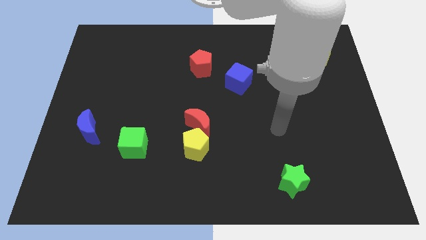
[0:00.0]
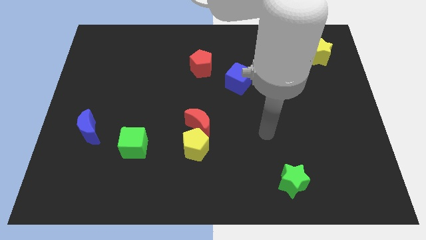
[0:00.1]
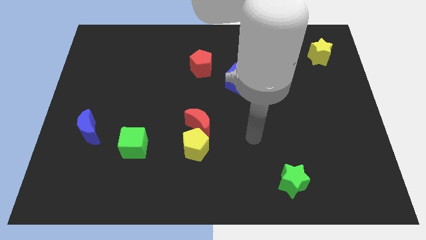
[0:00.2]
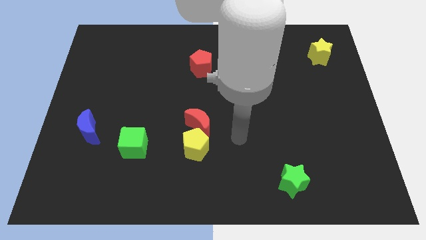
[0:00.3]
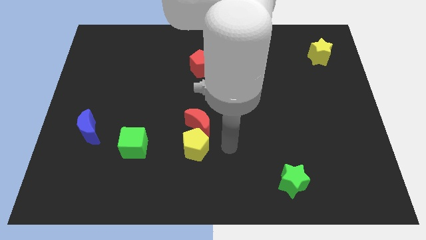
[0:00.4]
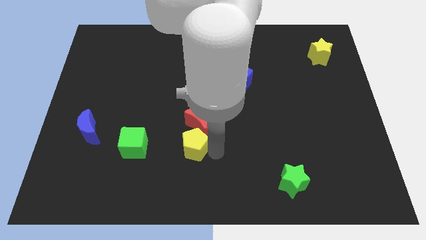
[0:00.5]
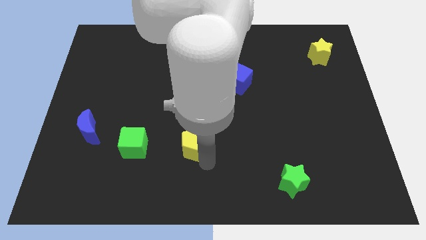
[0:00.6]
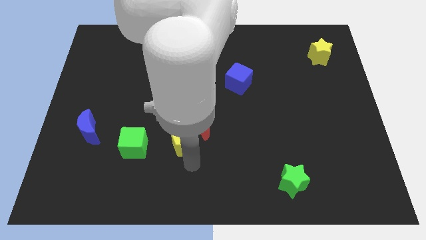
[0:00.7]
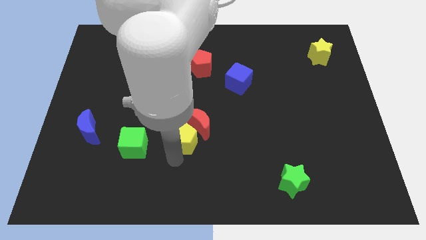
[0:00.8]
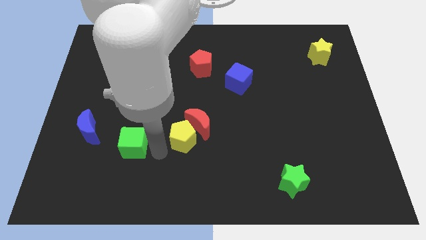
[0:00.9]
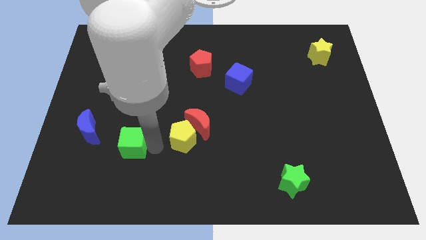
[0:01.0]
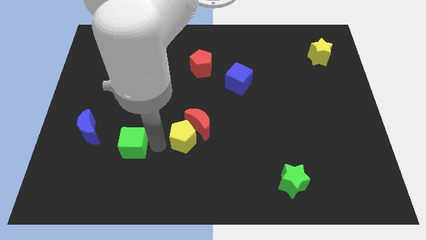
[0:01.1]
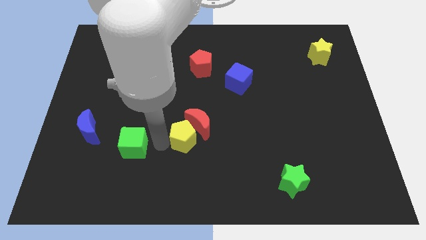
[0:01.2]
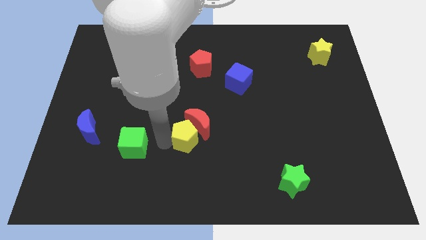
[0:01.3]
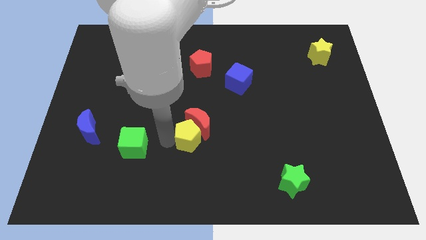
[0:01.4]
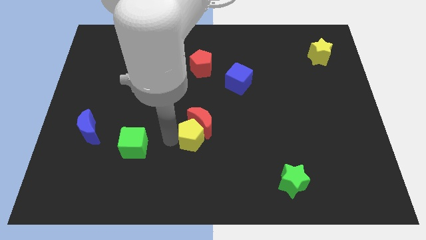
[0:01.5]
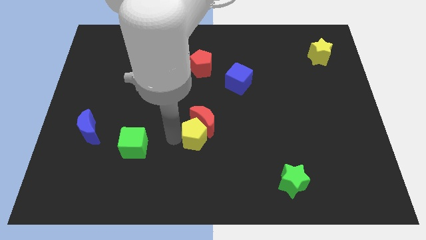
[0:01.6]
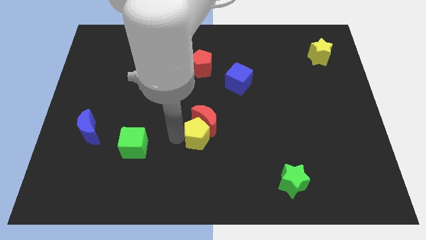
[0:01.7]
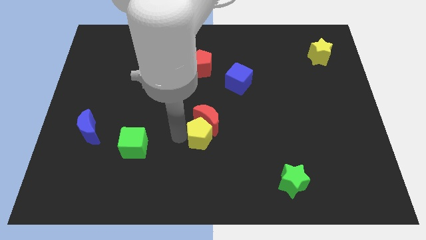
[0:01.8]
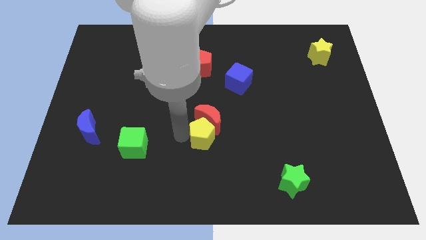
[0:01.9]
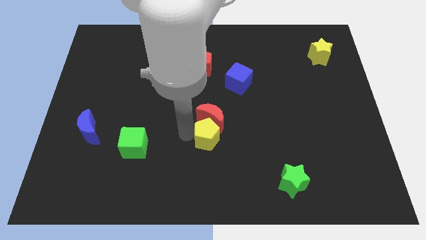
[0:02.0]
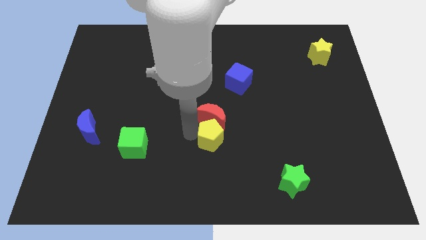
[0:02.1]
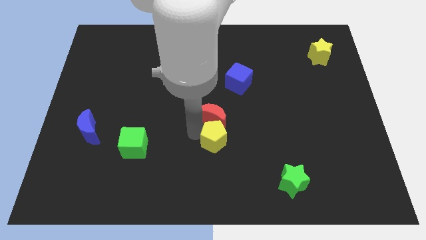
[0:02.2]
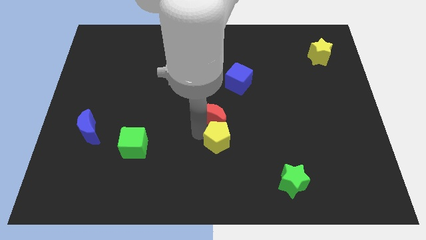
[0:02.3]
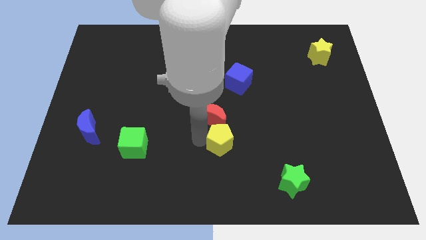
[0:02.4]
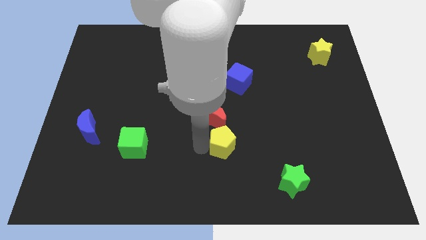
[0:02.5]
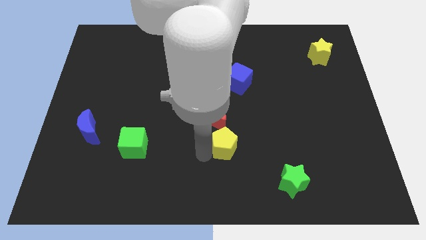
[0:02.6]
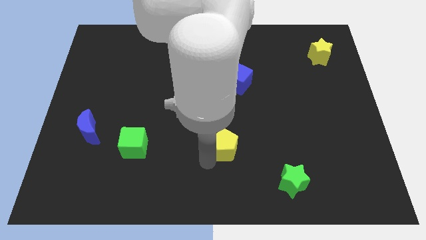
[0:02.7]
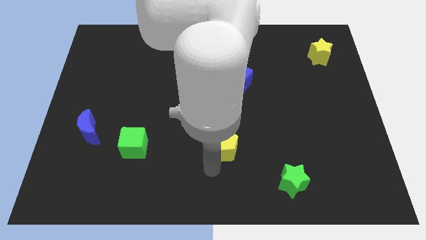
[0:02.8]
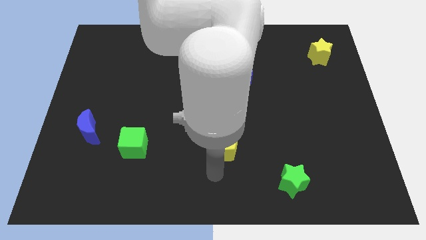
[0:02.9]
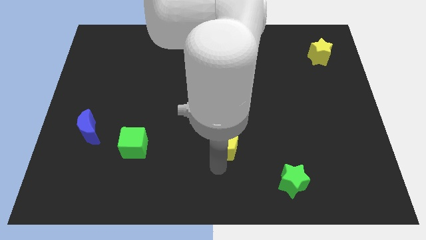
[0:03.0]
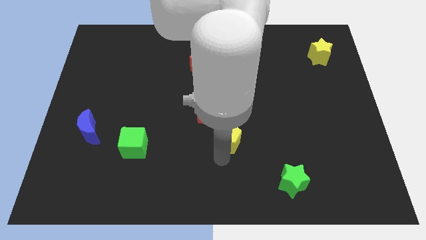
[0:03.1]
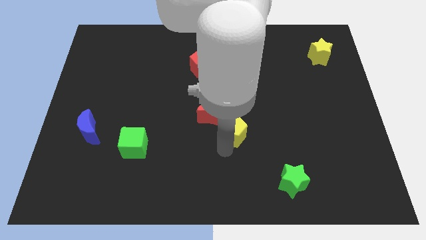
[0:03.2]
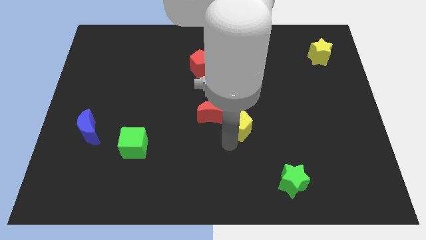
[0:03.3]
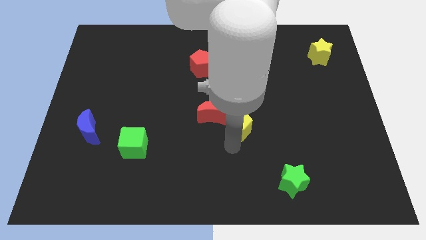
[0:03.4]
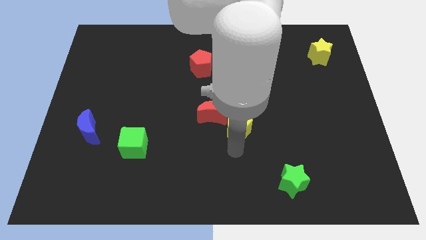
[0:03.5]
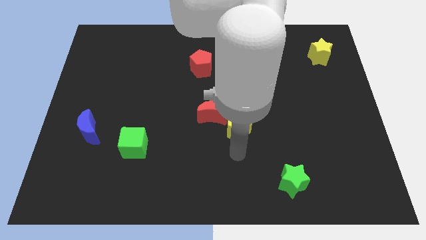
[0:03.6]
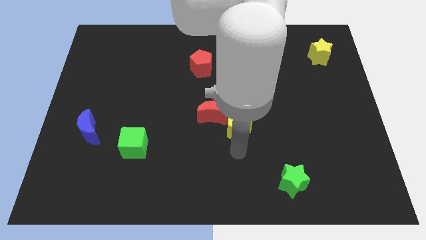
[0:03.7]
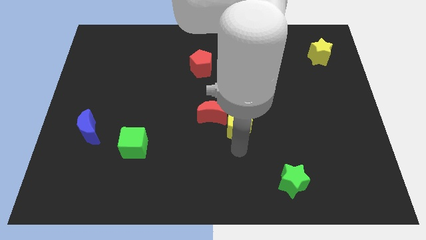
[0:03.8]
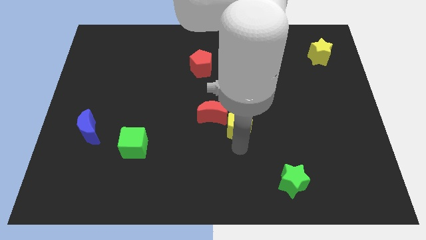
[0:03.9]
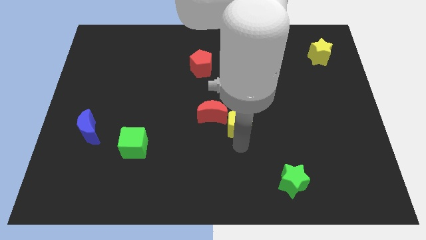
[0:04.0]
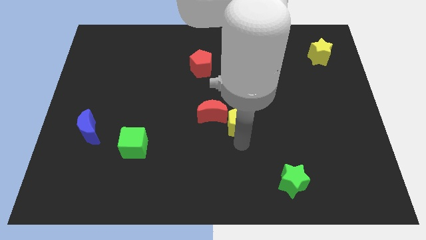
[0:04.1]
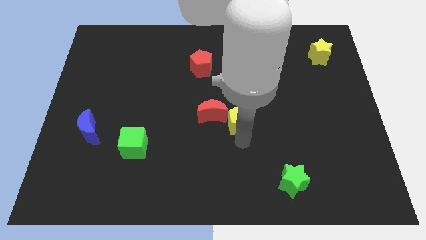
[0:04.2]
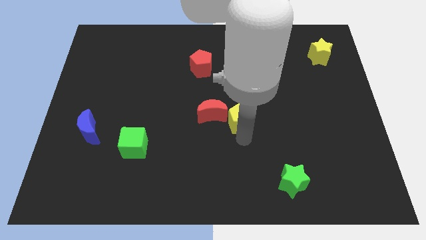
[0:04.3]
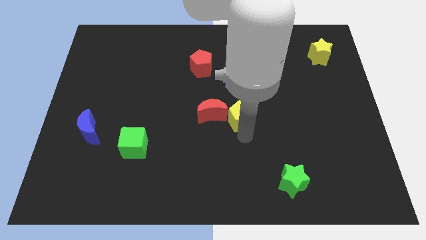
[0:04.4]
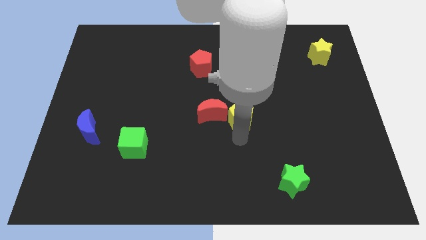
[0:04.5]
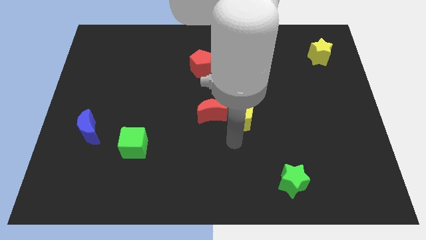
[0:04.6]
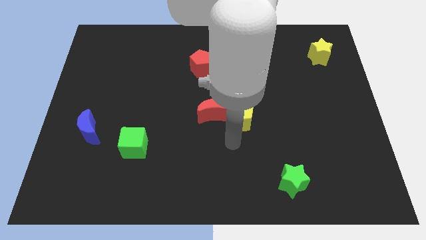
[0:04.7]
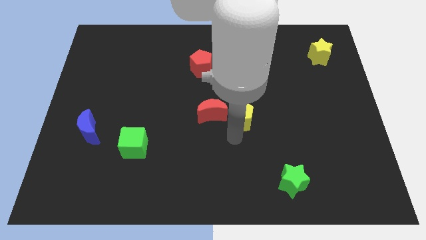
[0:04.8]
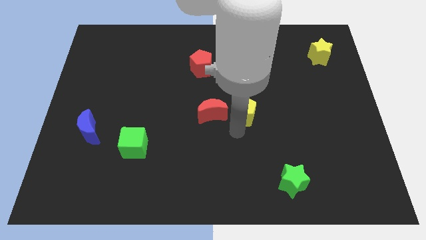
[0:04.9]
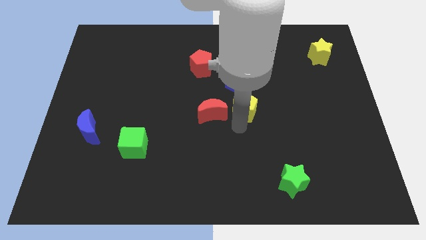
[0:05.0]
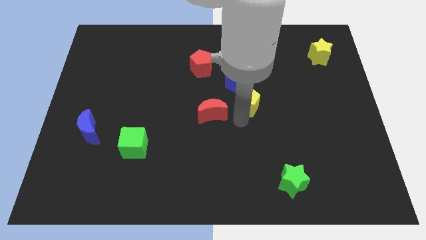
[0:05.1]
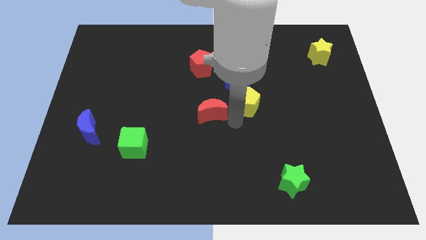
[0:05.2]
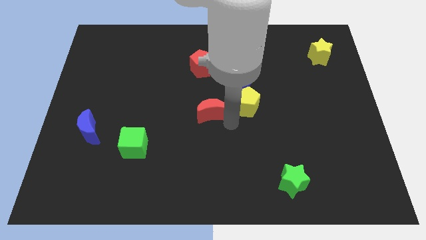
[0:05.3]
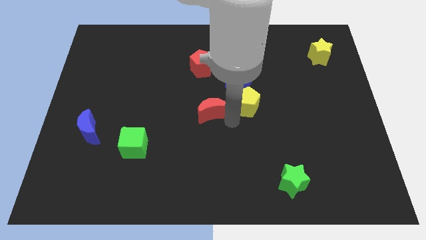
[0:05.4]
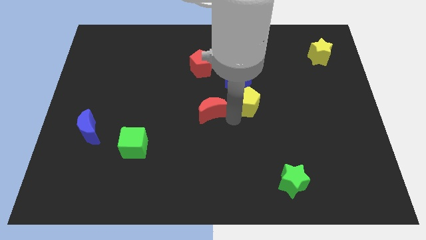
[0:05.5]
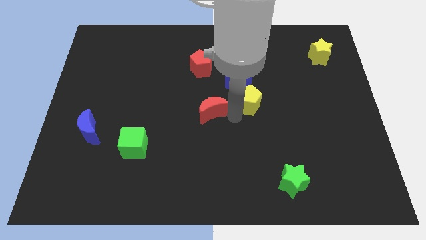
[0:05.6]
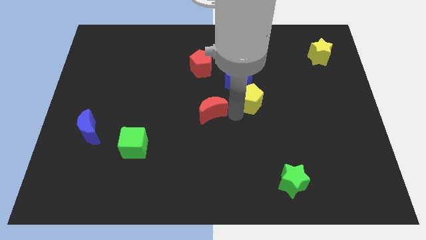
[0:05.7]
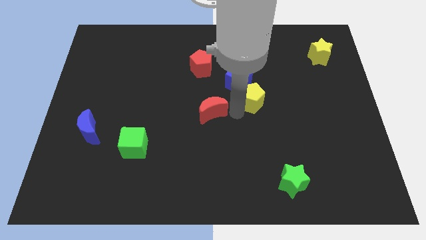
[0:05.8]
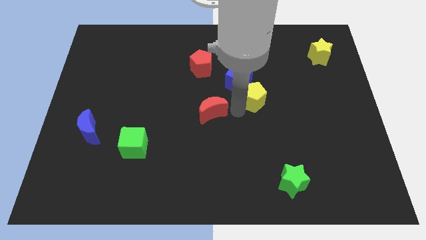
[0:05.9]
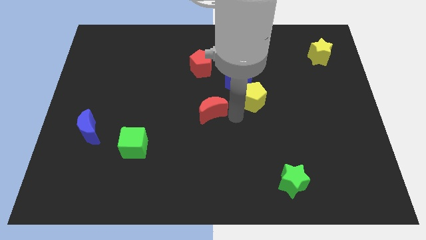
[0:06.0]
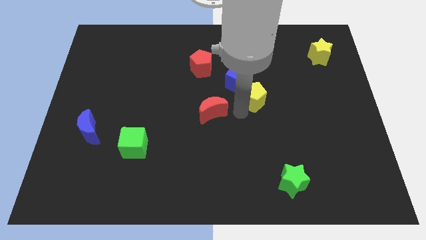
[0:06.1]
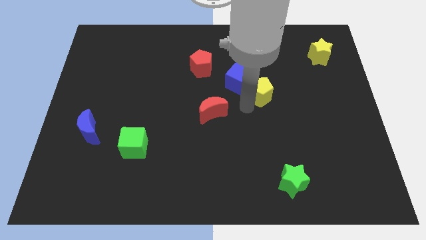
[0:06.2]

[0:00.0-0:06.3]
move the yellow pentagon up and then right

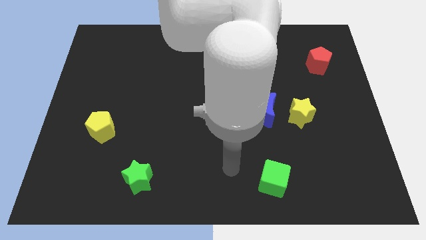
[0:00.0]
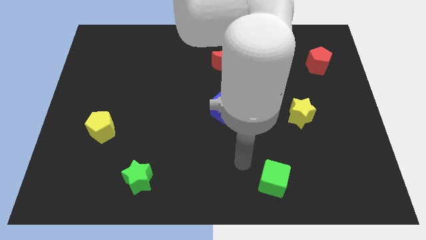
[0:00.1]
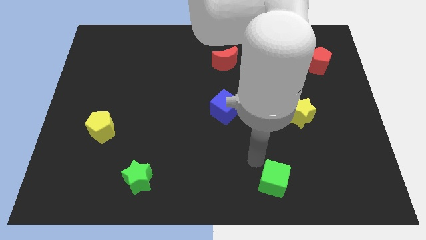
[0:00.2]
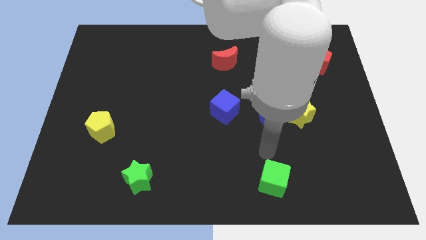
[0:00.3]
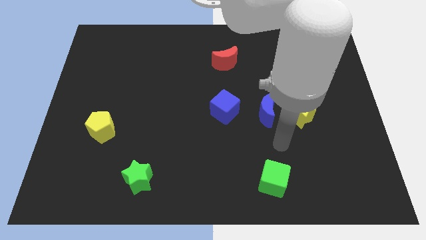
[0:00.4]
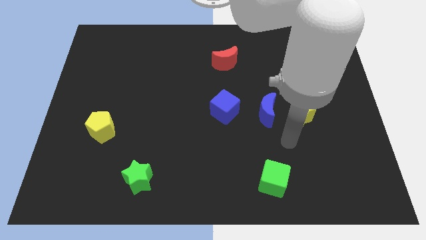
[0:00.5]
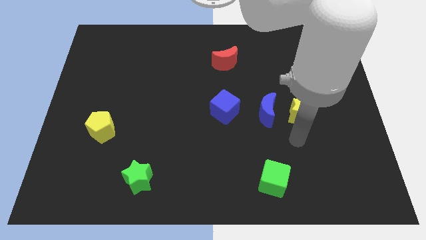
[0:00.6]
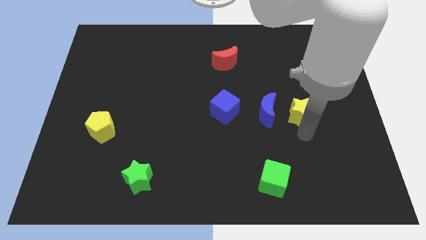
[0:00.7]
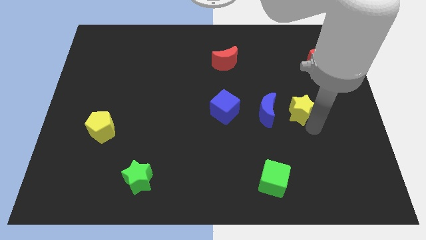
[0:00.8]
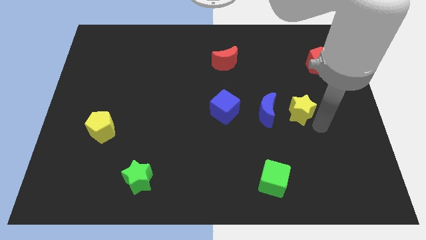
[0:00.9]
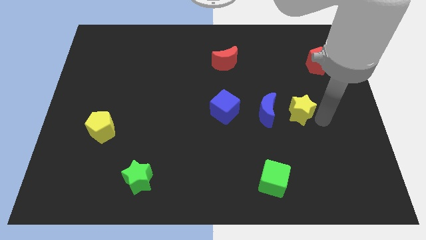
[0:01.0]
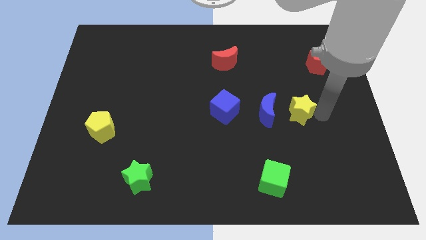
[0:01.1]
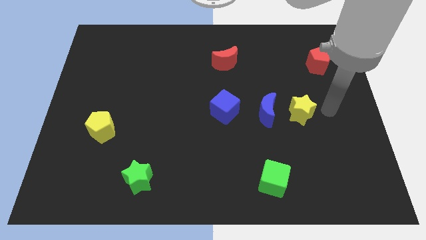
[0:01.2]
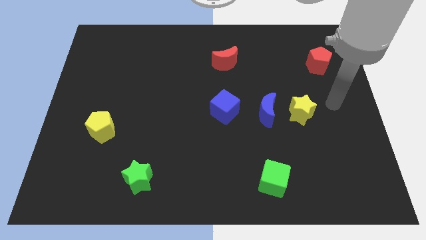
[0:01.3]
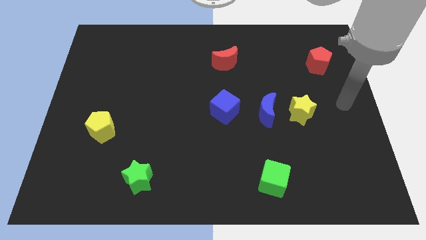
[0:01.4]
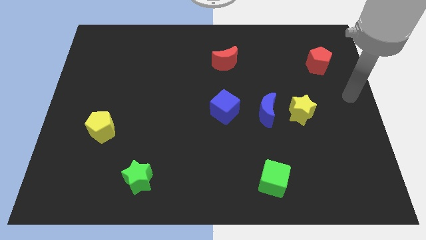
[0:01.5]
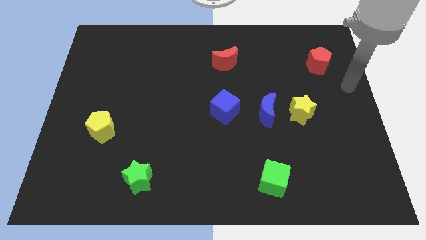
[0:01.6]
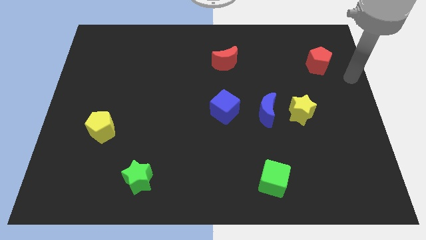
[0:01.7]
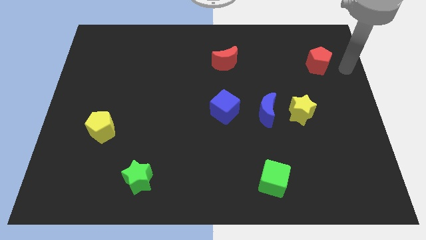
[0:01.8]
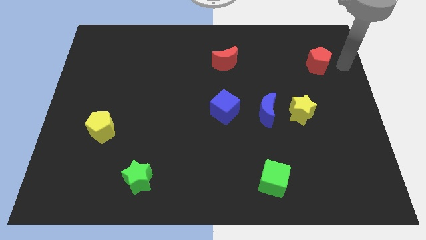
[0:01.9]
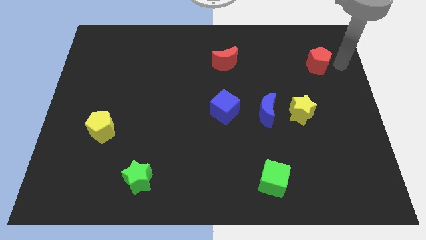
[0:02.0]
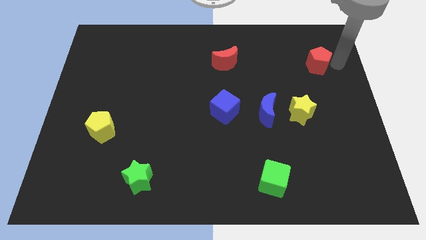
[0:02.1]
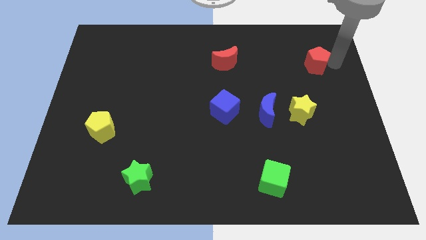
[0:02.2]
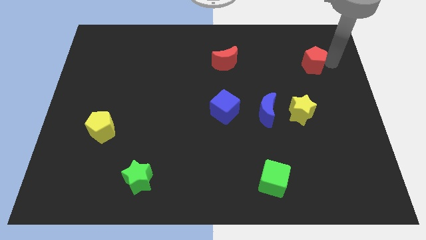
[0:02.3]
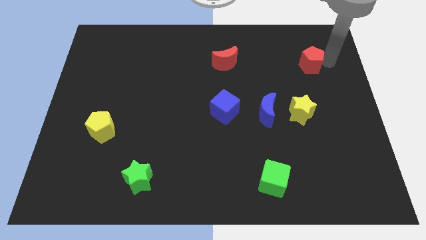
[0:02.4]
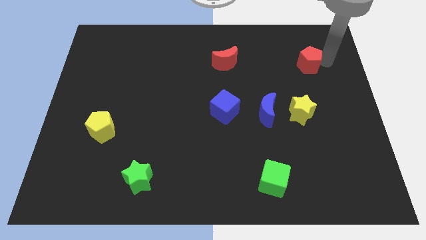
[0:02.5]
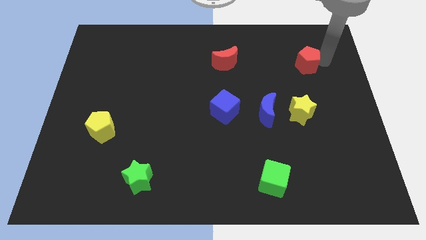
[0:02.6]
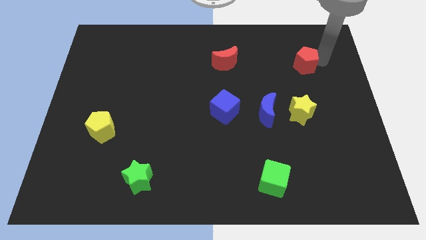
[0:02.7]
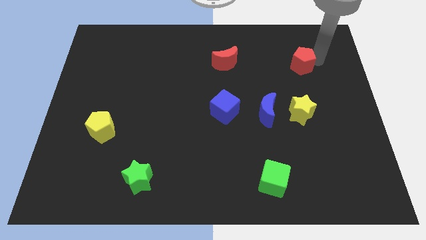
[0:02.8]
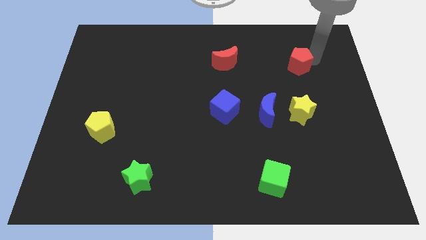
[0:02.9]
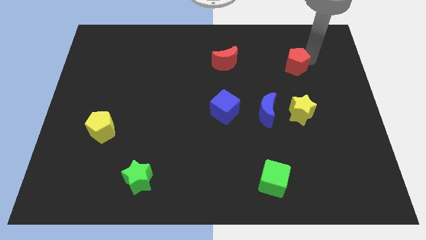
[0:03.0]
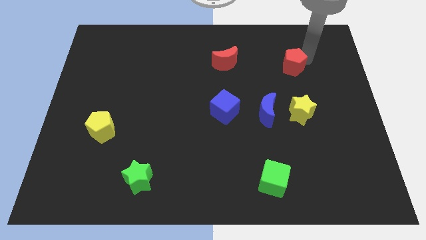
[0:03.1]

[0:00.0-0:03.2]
slide the red pentagon slightly to the left
